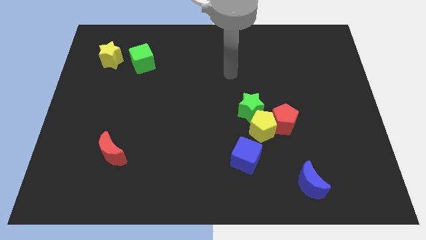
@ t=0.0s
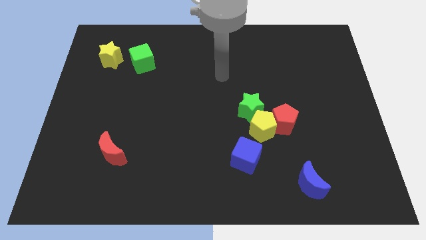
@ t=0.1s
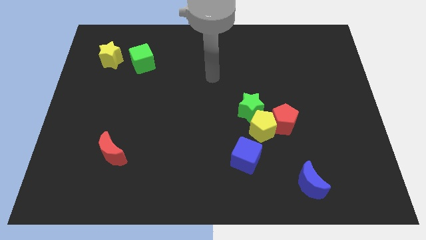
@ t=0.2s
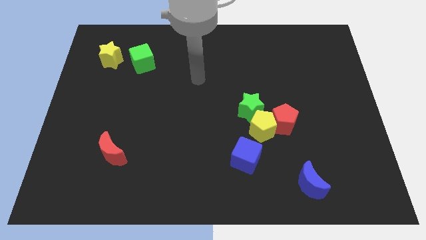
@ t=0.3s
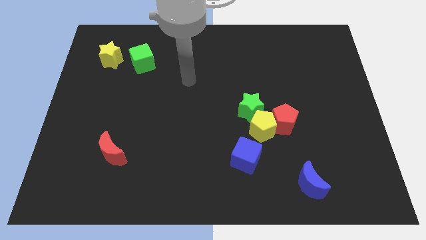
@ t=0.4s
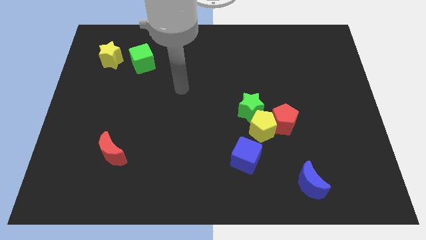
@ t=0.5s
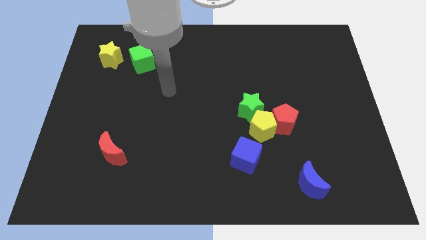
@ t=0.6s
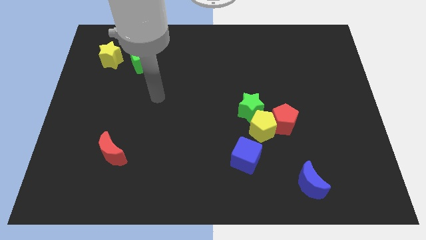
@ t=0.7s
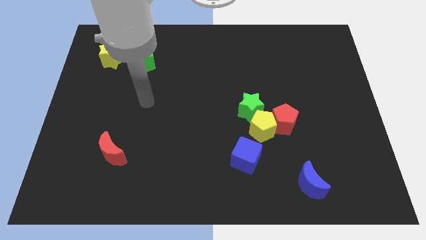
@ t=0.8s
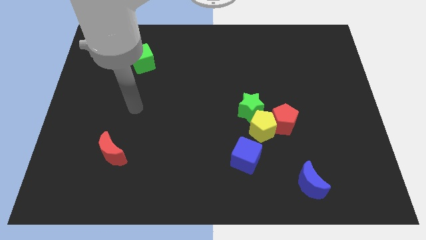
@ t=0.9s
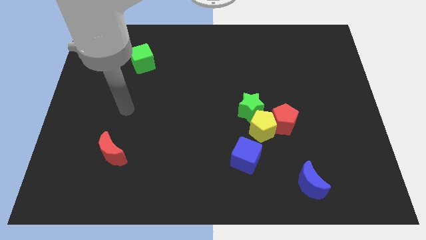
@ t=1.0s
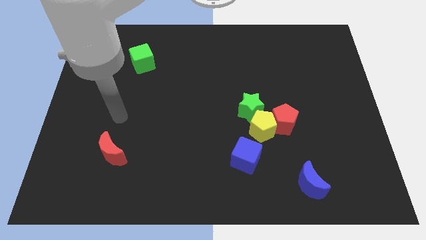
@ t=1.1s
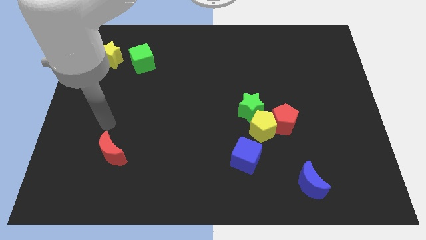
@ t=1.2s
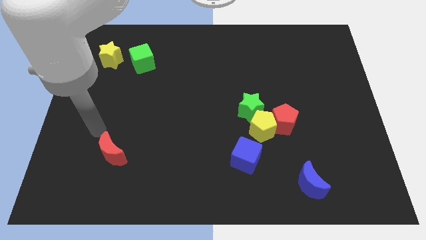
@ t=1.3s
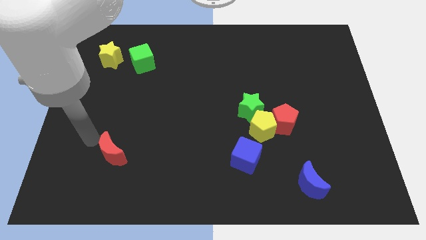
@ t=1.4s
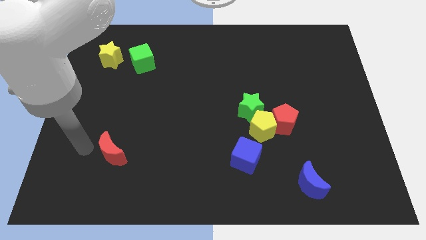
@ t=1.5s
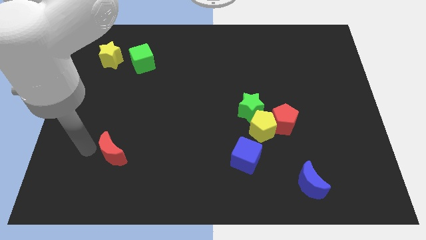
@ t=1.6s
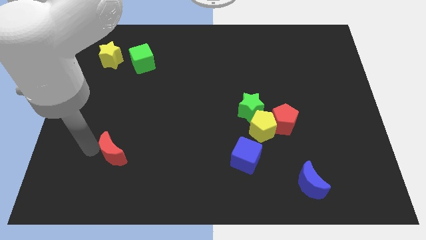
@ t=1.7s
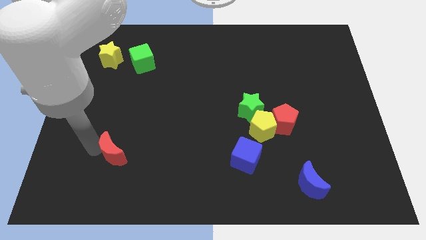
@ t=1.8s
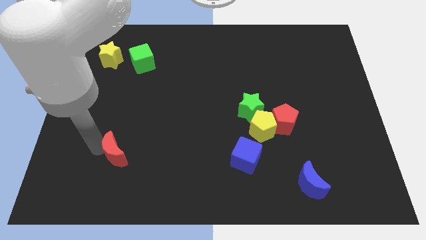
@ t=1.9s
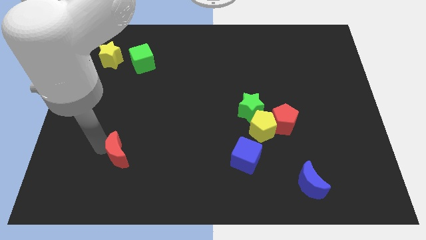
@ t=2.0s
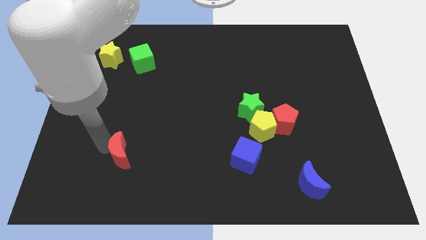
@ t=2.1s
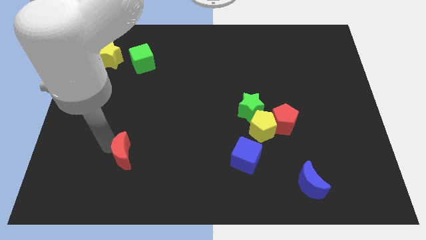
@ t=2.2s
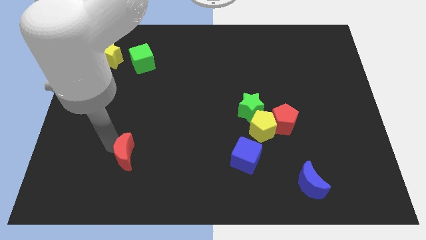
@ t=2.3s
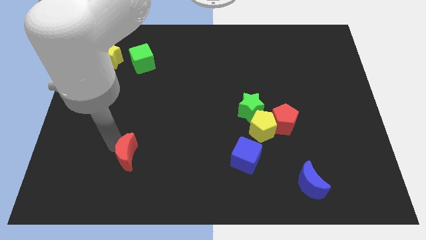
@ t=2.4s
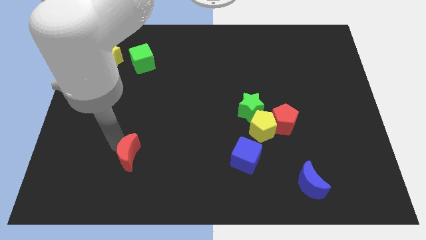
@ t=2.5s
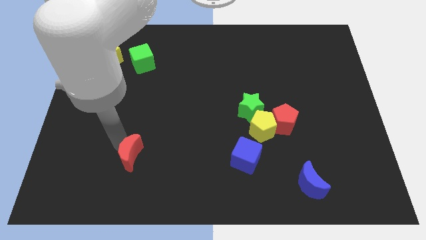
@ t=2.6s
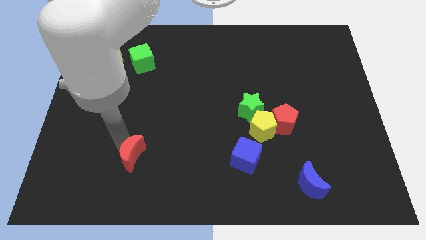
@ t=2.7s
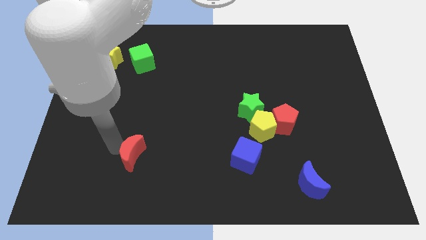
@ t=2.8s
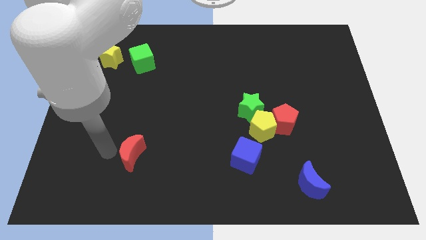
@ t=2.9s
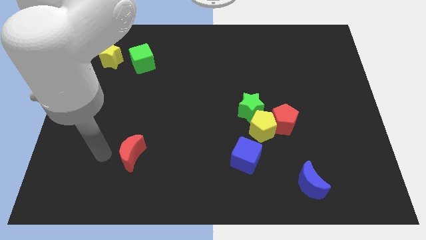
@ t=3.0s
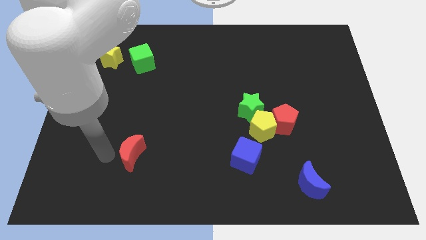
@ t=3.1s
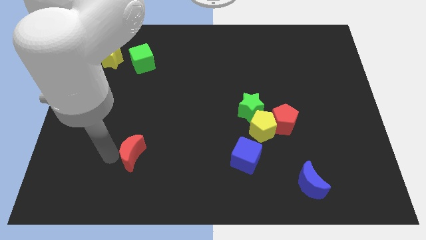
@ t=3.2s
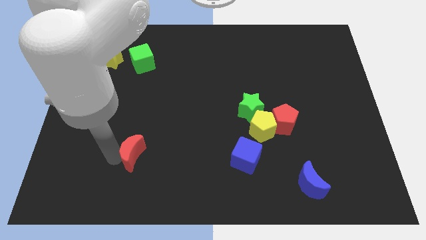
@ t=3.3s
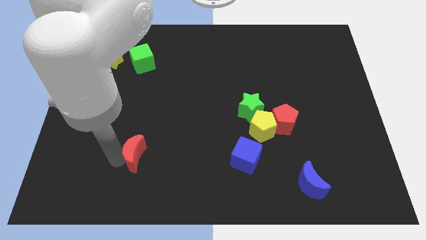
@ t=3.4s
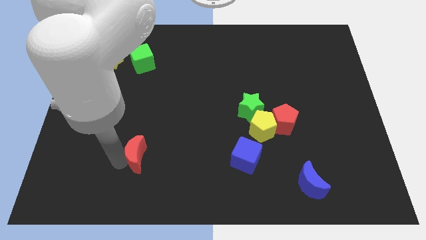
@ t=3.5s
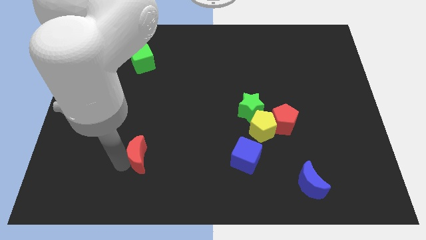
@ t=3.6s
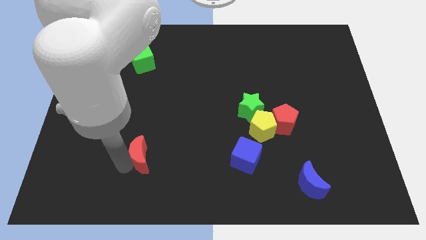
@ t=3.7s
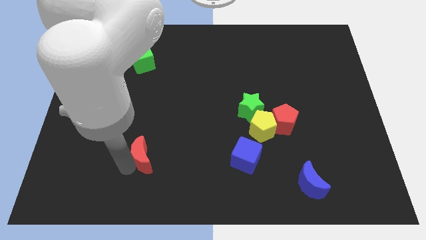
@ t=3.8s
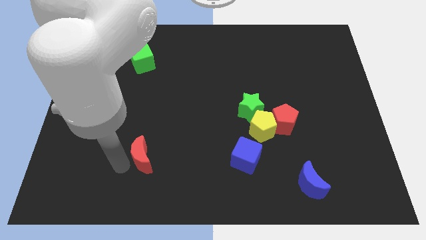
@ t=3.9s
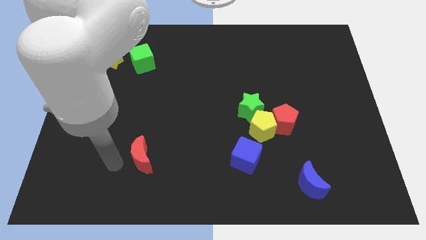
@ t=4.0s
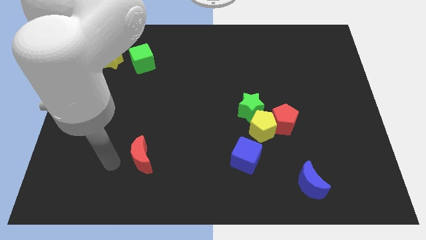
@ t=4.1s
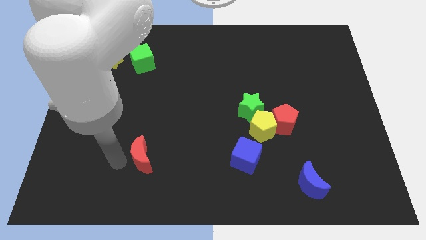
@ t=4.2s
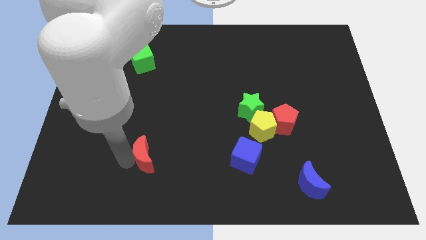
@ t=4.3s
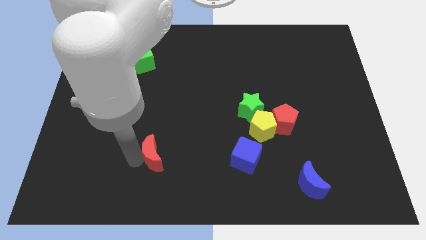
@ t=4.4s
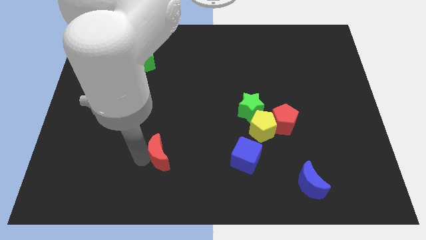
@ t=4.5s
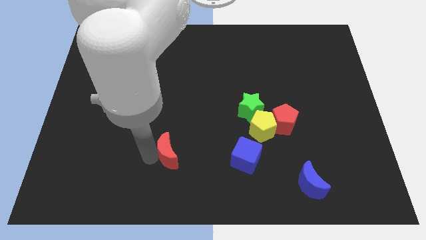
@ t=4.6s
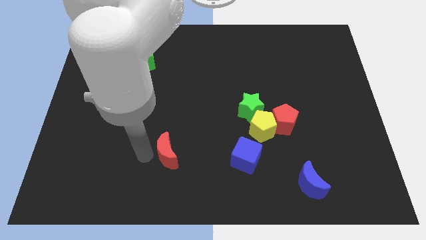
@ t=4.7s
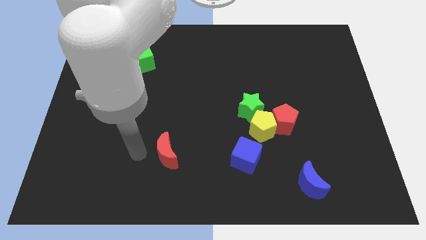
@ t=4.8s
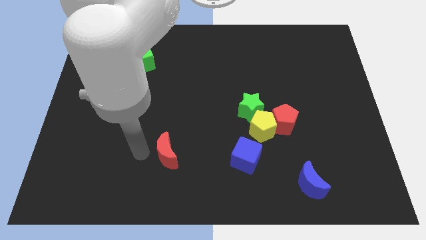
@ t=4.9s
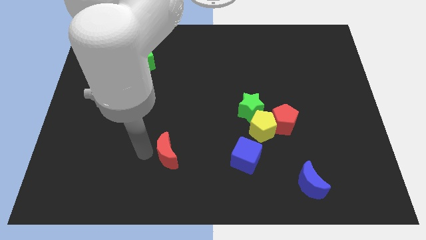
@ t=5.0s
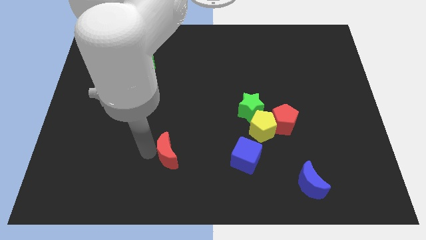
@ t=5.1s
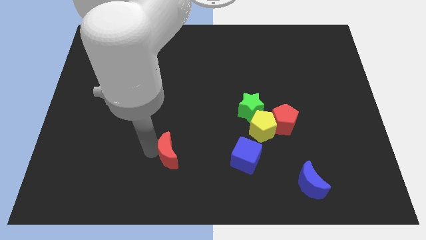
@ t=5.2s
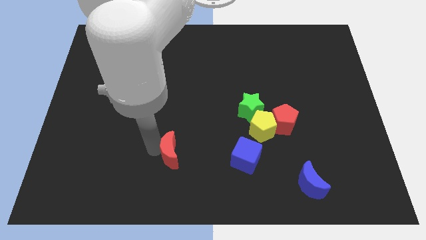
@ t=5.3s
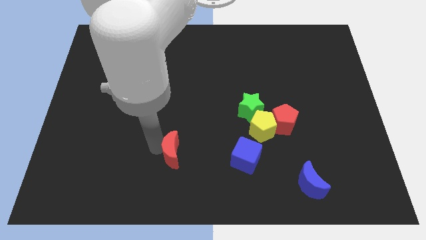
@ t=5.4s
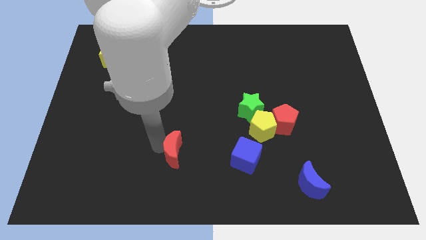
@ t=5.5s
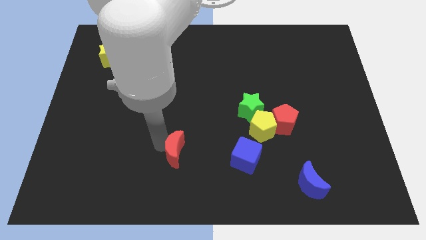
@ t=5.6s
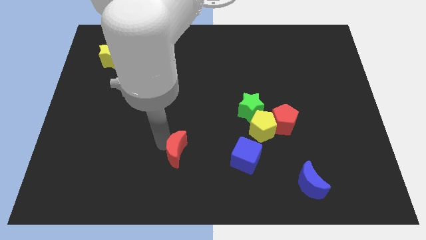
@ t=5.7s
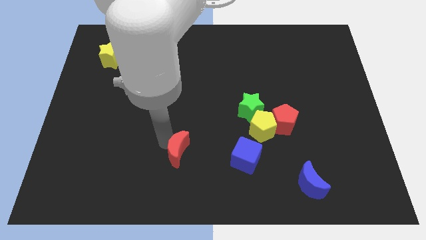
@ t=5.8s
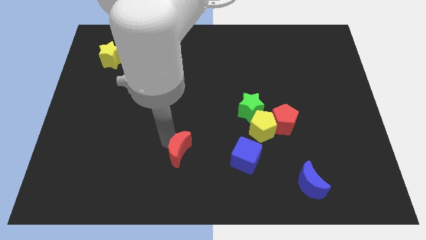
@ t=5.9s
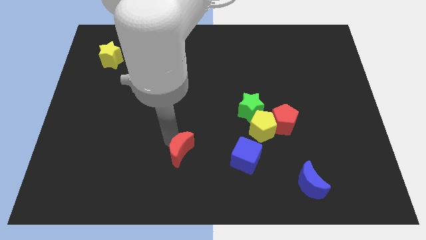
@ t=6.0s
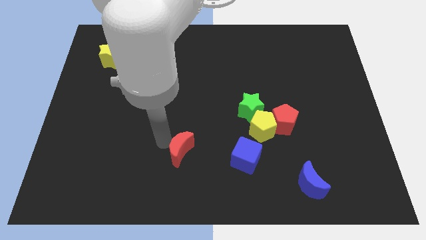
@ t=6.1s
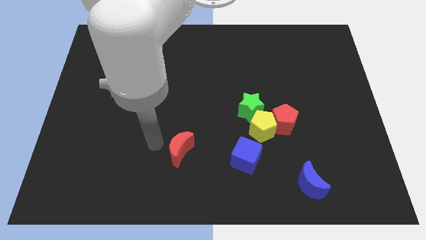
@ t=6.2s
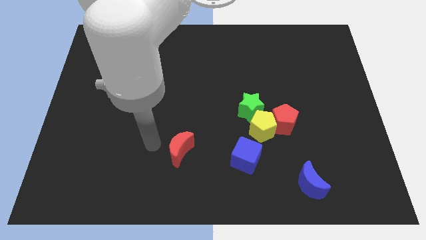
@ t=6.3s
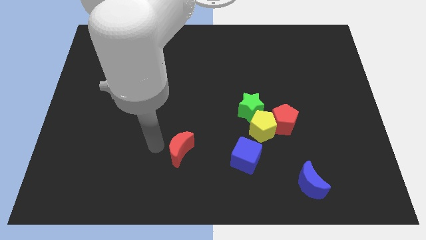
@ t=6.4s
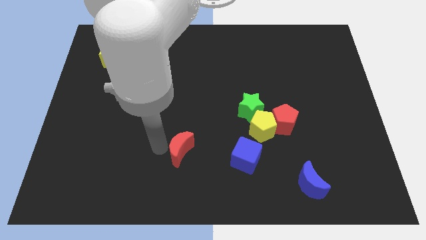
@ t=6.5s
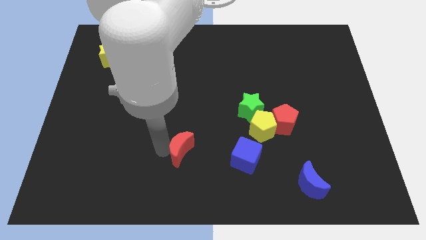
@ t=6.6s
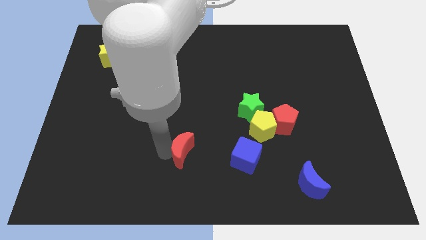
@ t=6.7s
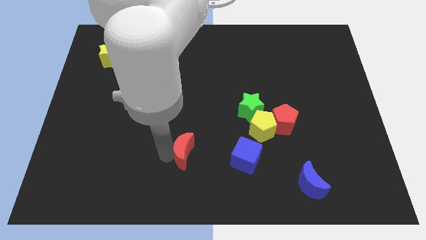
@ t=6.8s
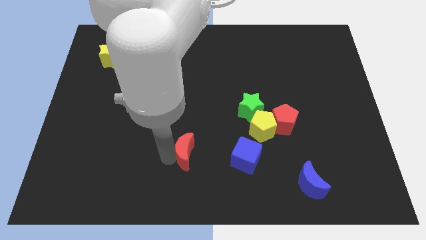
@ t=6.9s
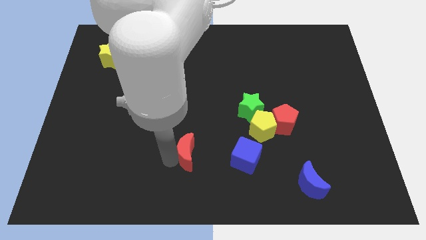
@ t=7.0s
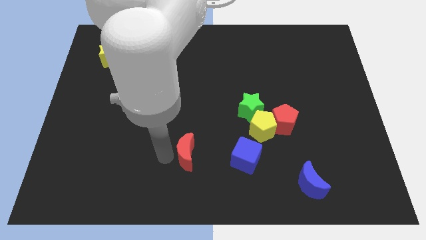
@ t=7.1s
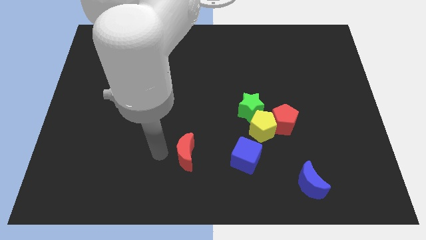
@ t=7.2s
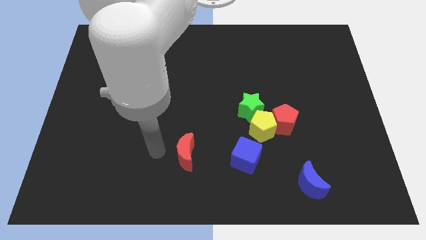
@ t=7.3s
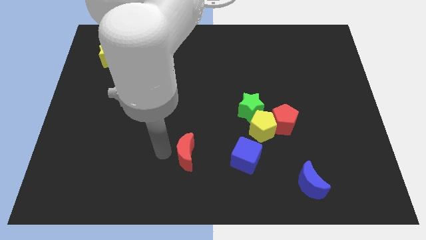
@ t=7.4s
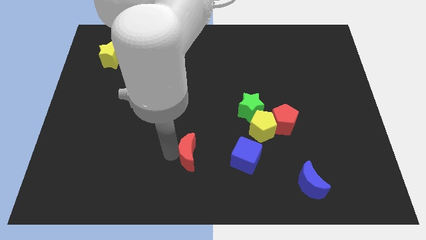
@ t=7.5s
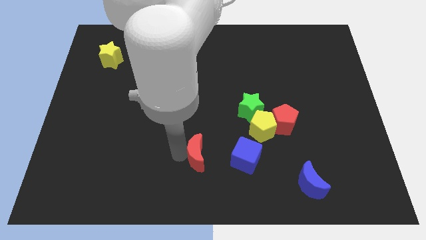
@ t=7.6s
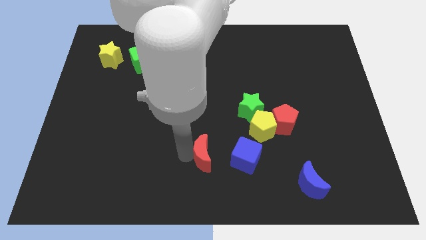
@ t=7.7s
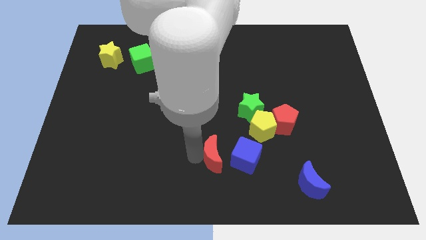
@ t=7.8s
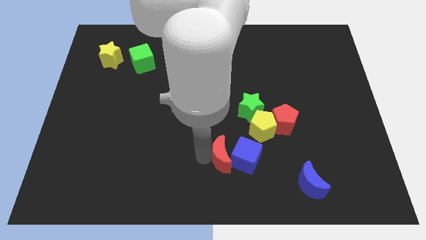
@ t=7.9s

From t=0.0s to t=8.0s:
slide the red moon towards the blue cube
